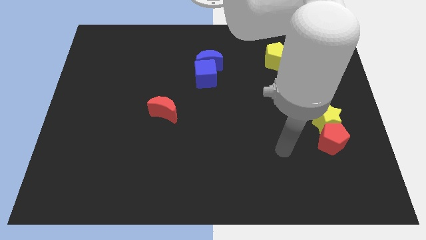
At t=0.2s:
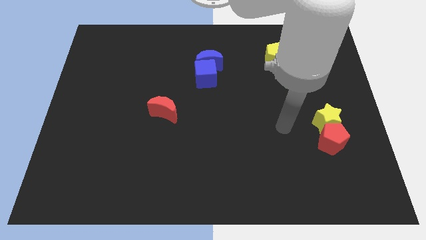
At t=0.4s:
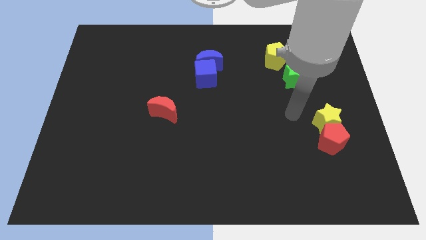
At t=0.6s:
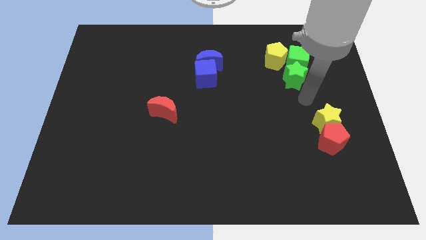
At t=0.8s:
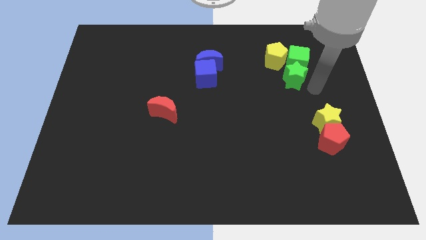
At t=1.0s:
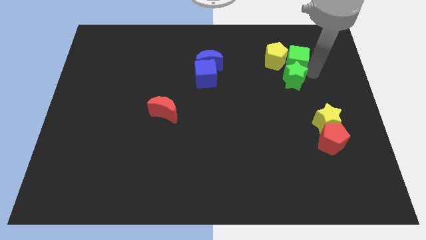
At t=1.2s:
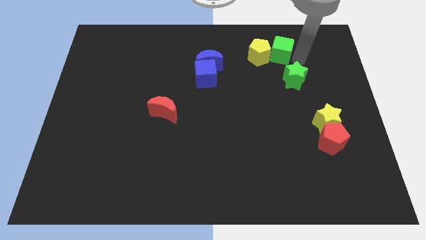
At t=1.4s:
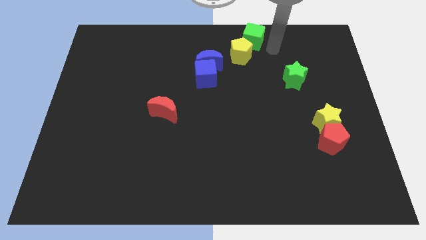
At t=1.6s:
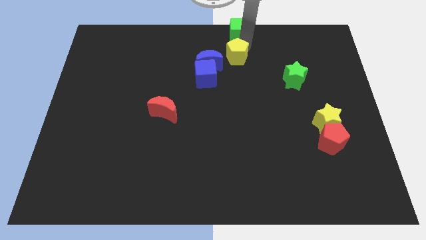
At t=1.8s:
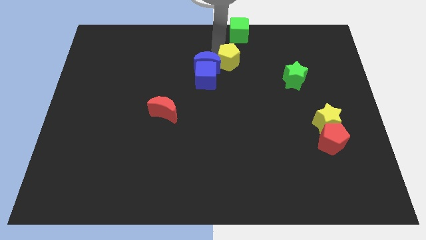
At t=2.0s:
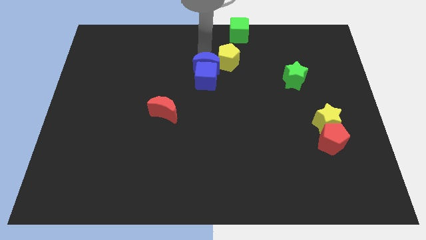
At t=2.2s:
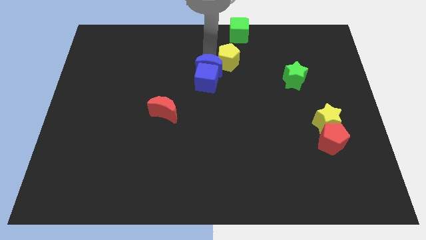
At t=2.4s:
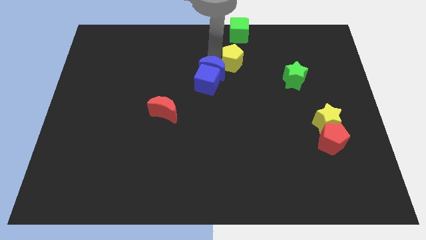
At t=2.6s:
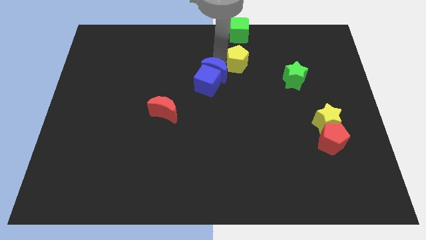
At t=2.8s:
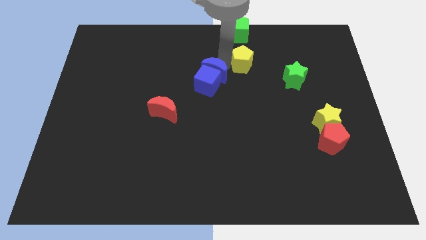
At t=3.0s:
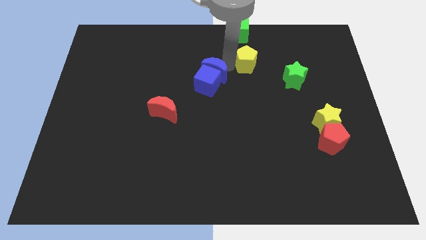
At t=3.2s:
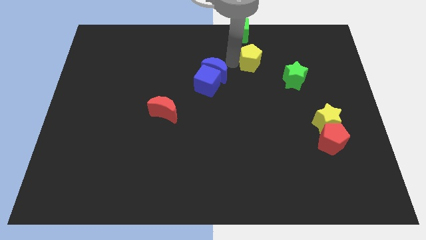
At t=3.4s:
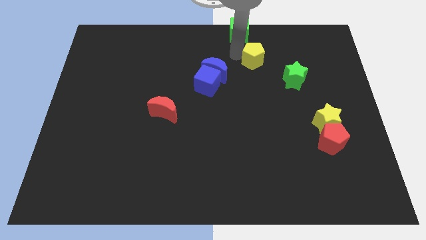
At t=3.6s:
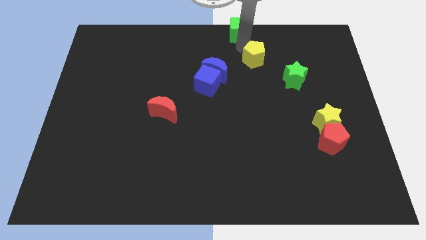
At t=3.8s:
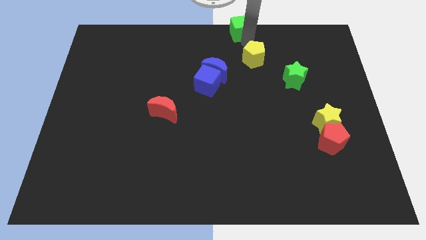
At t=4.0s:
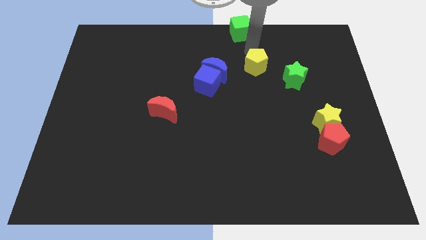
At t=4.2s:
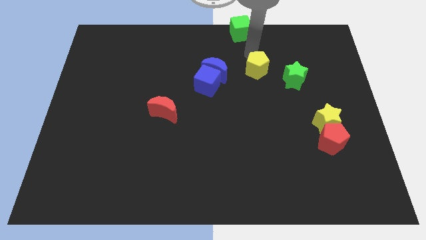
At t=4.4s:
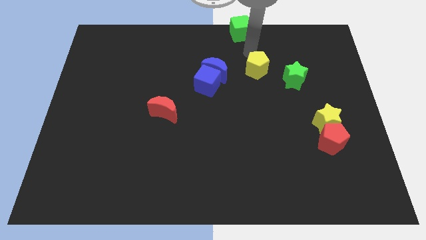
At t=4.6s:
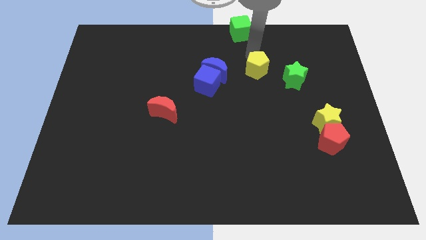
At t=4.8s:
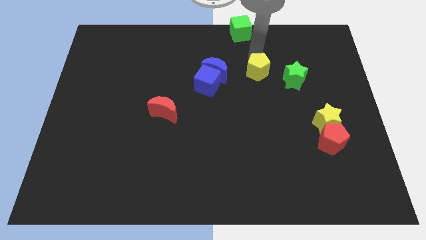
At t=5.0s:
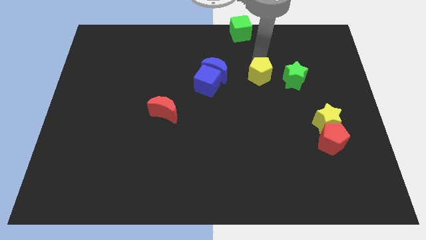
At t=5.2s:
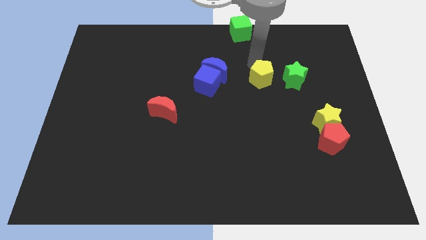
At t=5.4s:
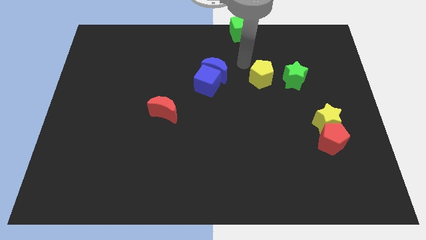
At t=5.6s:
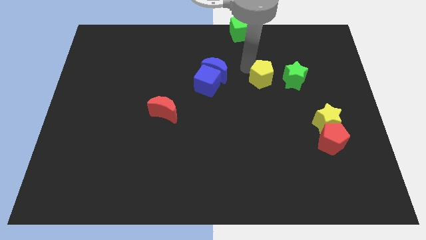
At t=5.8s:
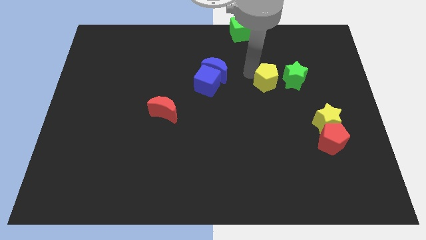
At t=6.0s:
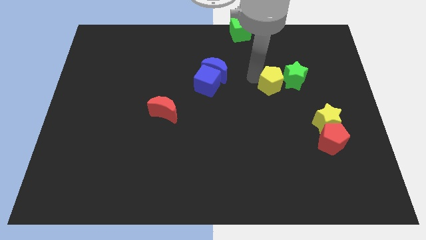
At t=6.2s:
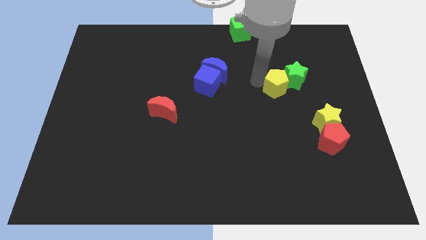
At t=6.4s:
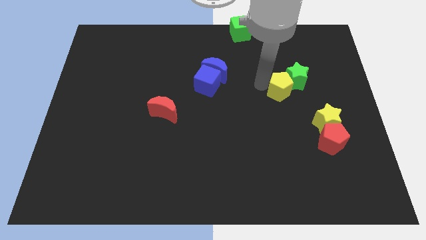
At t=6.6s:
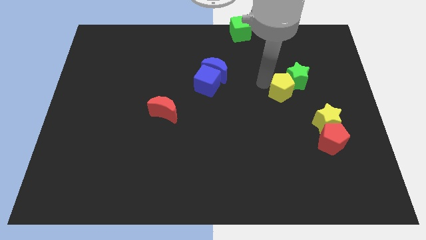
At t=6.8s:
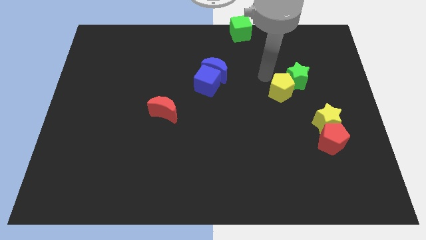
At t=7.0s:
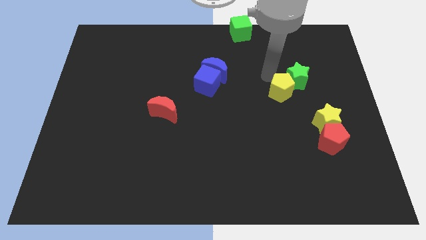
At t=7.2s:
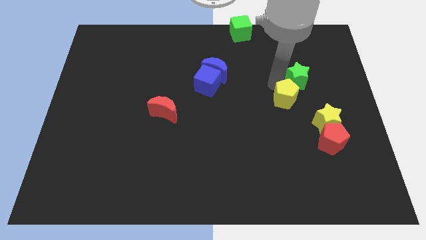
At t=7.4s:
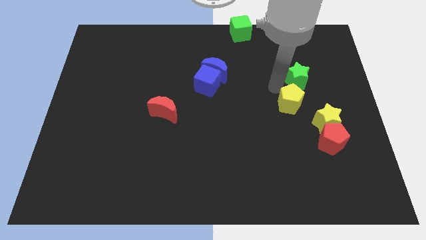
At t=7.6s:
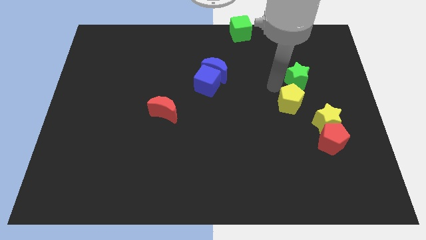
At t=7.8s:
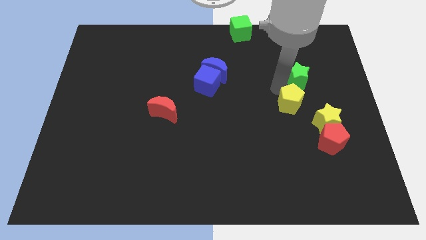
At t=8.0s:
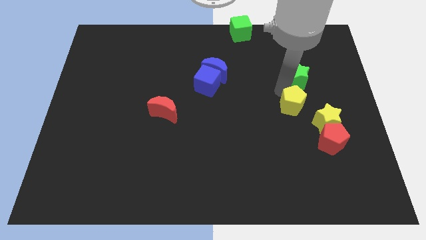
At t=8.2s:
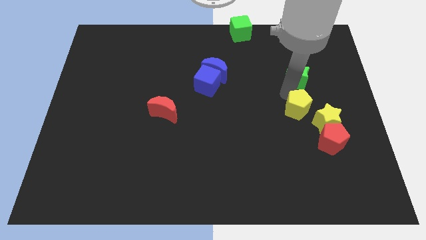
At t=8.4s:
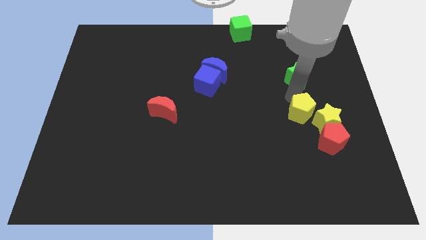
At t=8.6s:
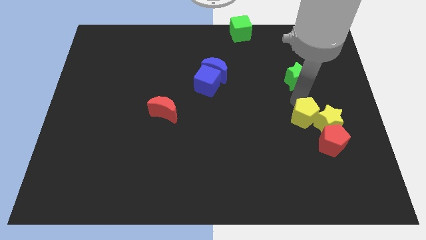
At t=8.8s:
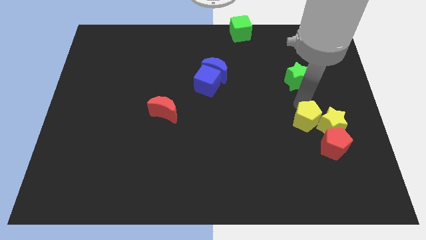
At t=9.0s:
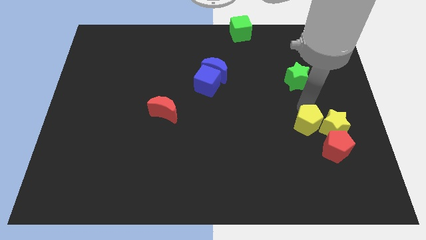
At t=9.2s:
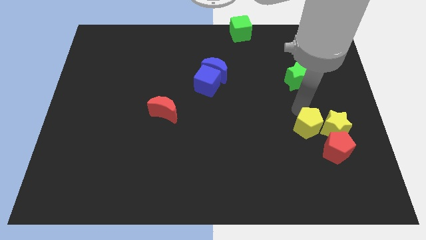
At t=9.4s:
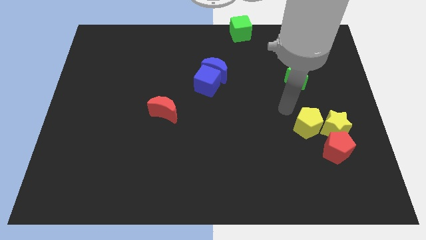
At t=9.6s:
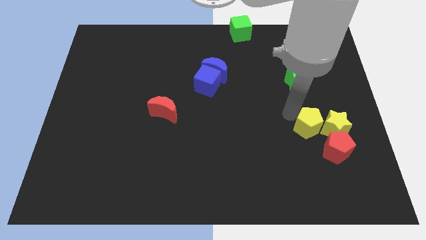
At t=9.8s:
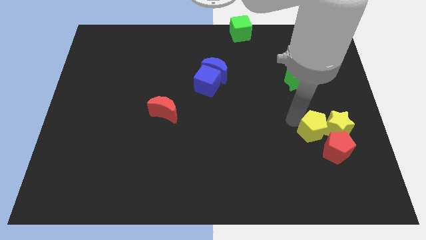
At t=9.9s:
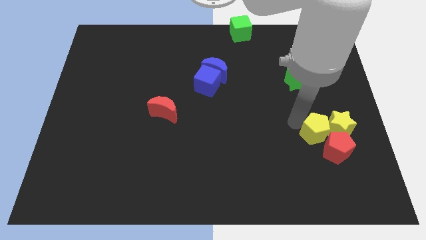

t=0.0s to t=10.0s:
slide the yellow pentagon close to the red pentagon

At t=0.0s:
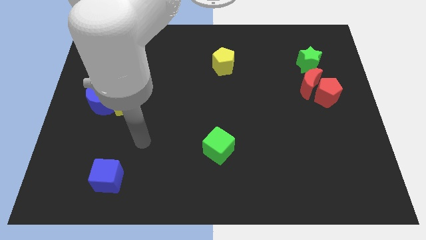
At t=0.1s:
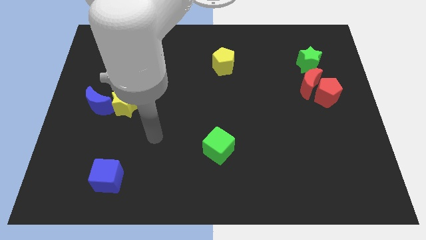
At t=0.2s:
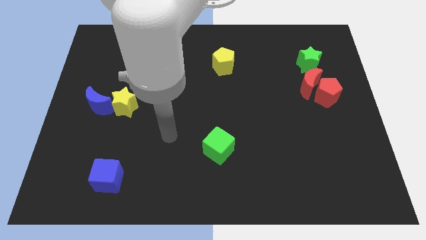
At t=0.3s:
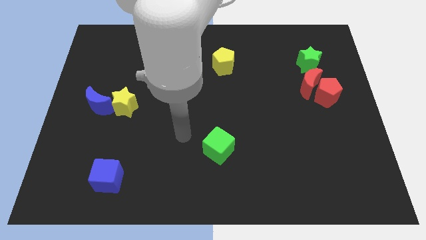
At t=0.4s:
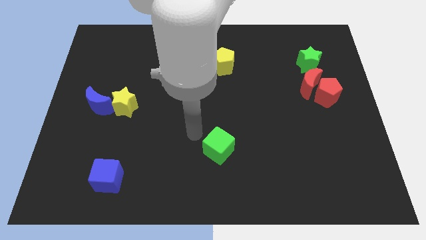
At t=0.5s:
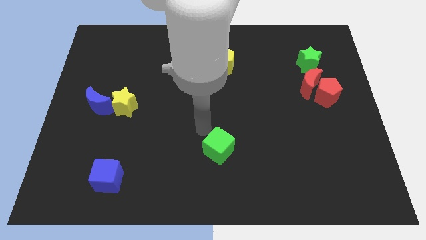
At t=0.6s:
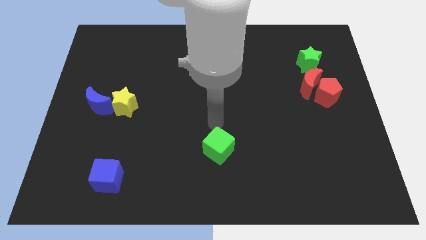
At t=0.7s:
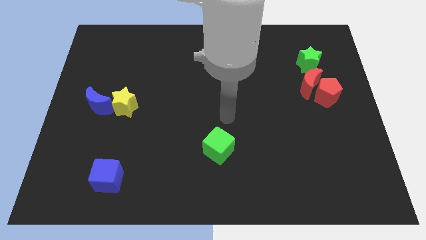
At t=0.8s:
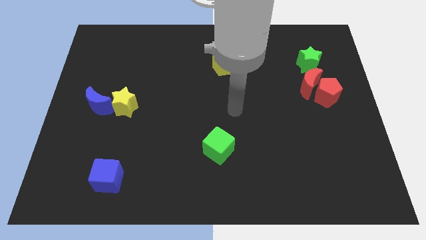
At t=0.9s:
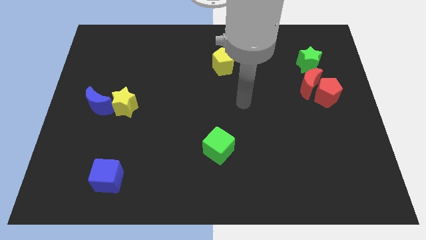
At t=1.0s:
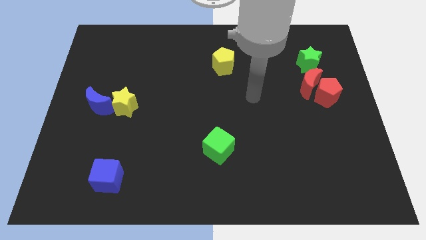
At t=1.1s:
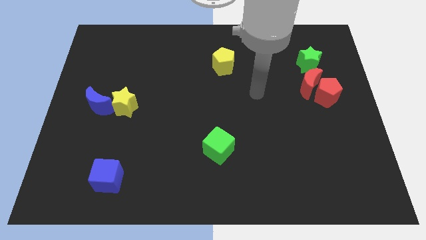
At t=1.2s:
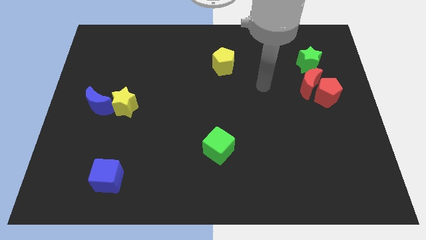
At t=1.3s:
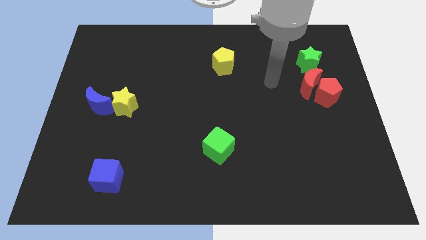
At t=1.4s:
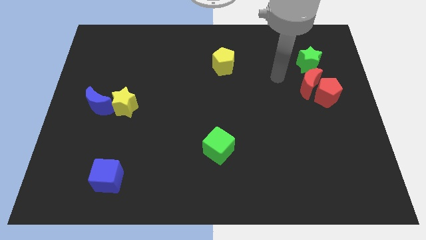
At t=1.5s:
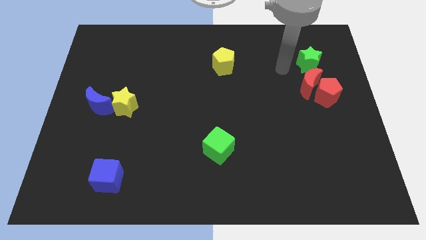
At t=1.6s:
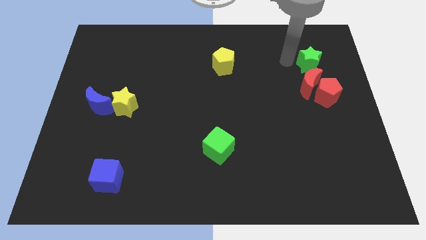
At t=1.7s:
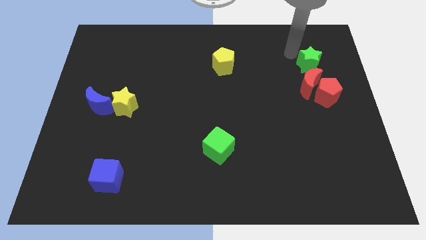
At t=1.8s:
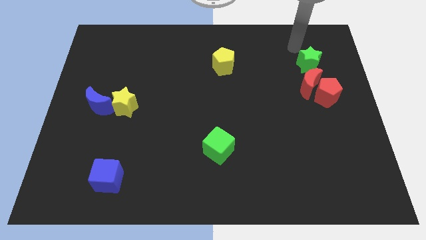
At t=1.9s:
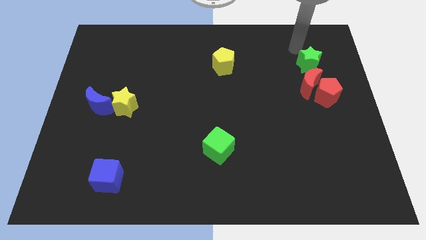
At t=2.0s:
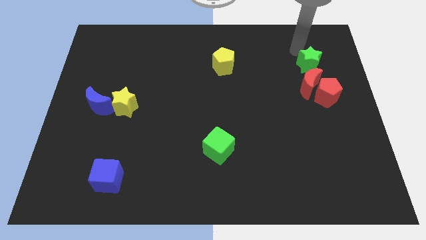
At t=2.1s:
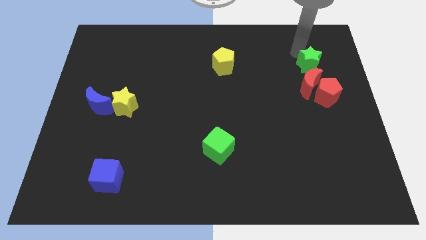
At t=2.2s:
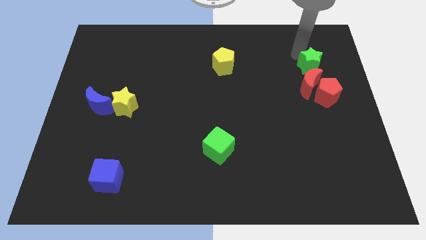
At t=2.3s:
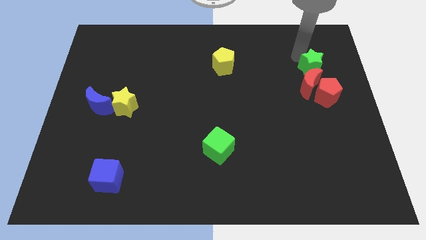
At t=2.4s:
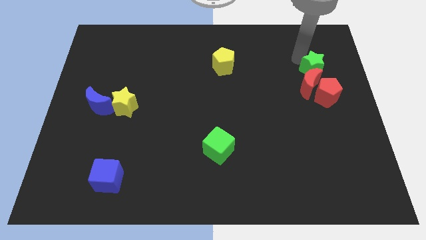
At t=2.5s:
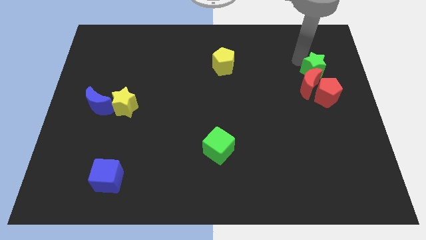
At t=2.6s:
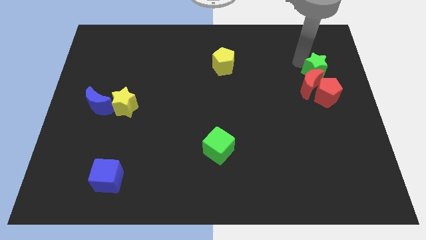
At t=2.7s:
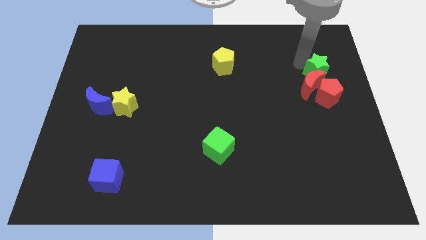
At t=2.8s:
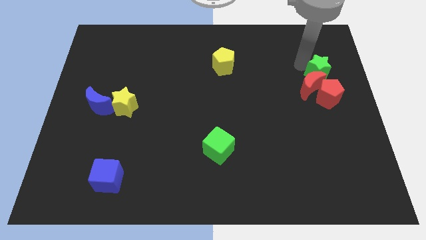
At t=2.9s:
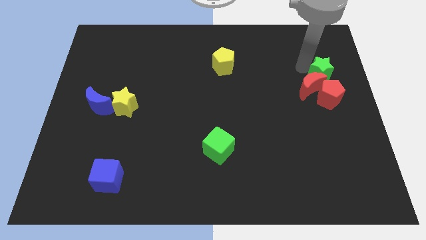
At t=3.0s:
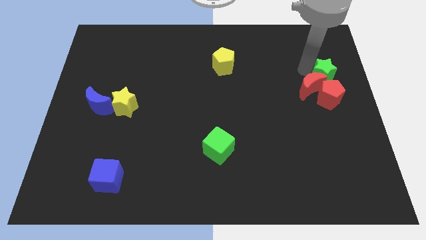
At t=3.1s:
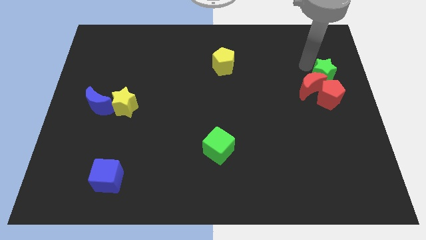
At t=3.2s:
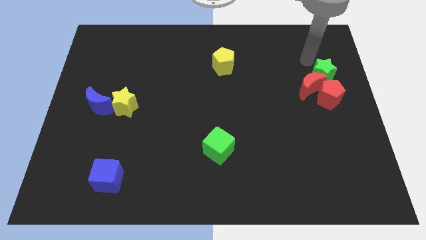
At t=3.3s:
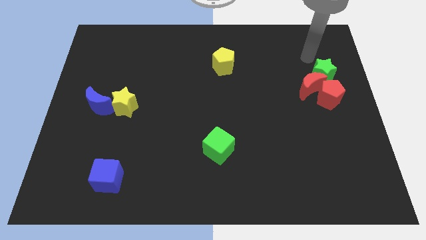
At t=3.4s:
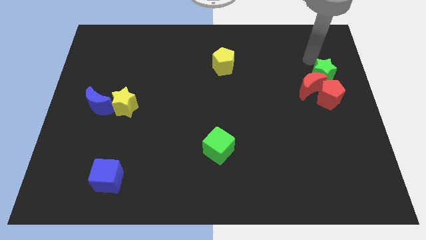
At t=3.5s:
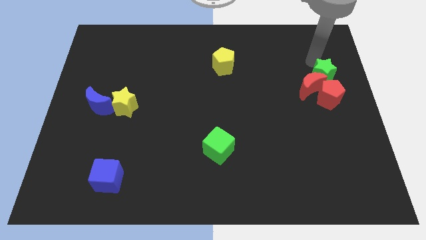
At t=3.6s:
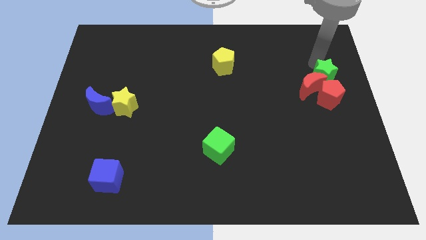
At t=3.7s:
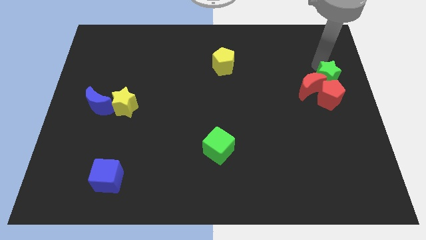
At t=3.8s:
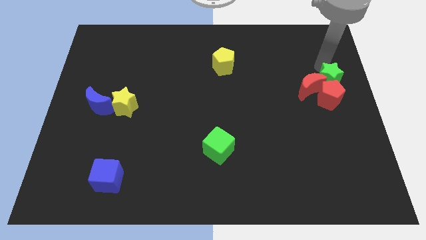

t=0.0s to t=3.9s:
put the green star to the red pentagon
